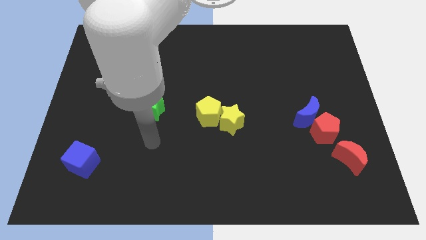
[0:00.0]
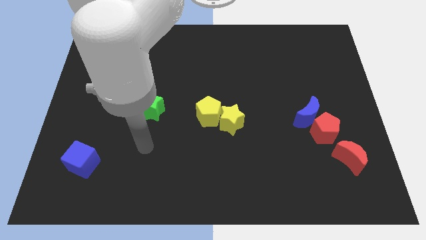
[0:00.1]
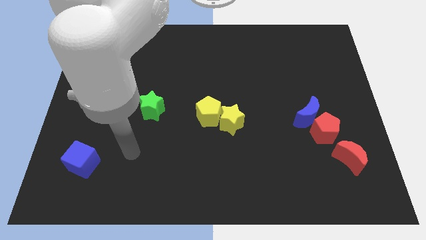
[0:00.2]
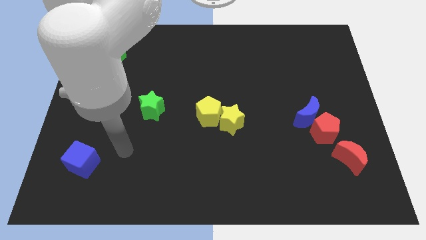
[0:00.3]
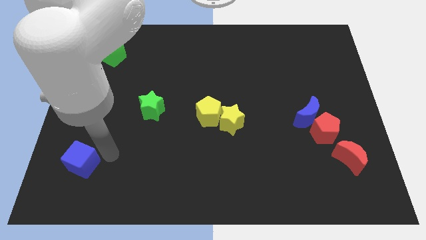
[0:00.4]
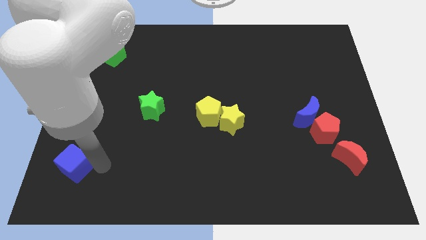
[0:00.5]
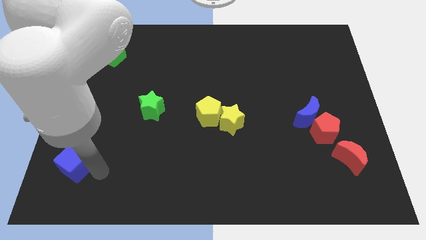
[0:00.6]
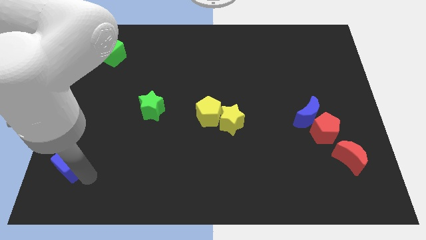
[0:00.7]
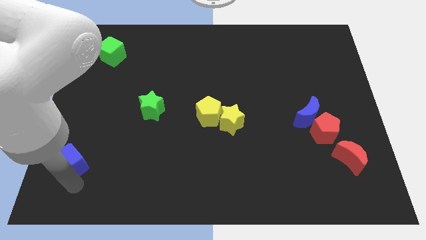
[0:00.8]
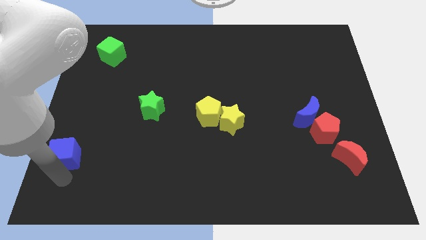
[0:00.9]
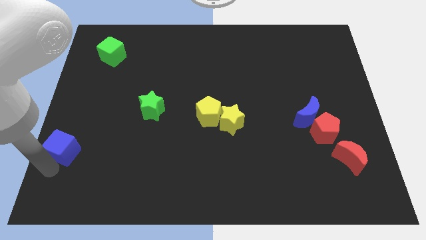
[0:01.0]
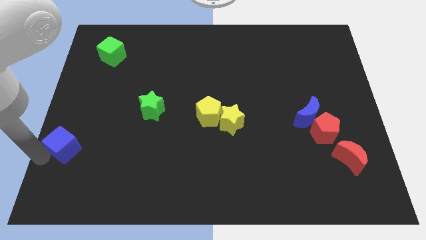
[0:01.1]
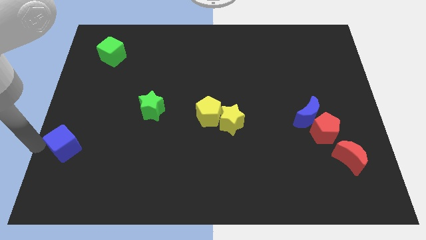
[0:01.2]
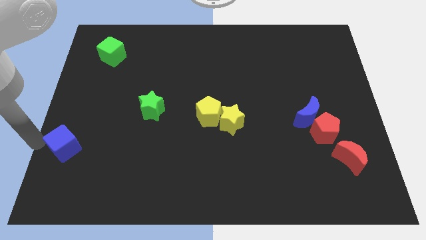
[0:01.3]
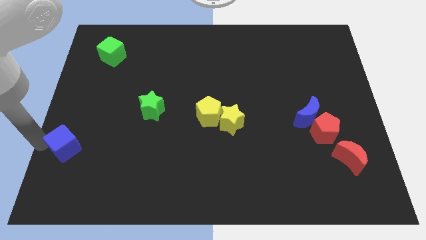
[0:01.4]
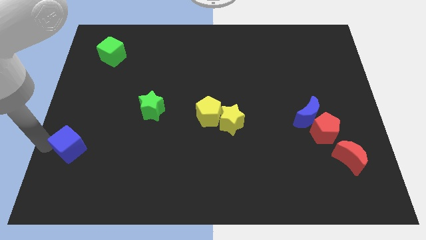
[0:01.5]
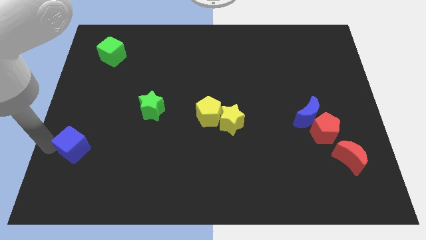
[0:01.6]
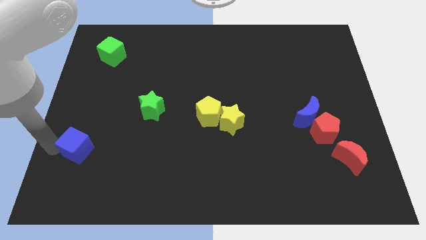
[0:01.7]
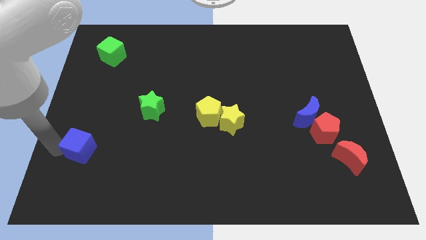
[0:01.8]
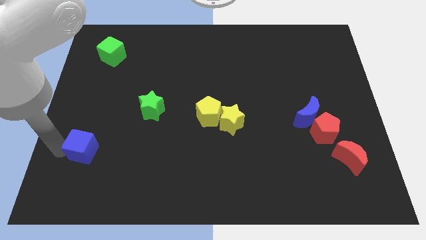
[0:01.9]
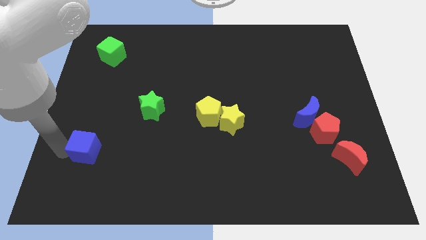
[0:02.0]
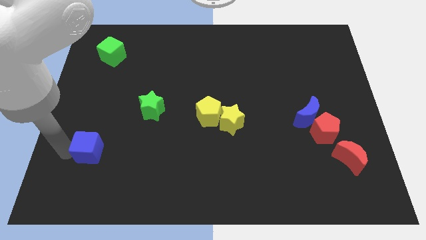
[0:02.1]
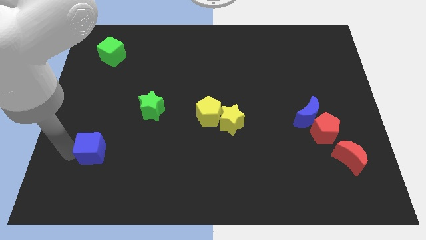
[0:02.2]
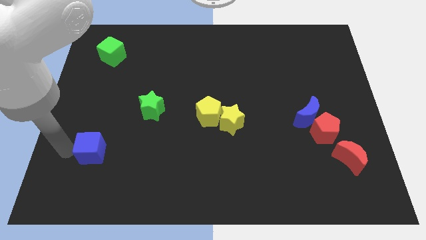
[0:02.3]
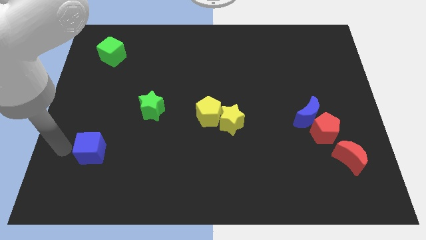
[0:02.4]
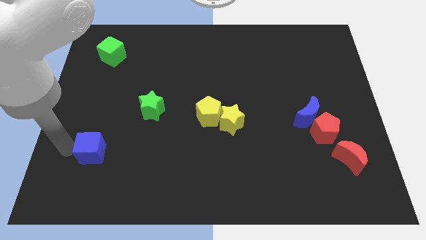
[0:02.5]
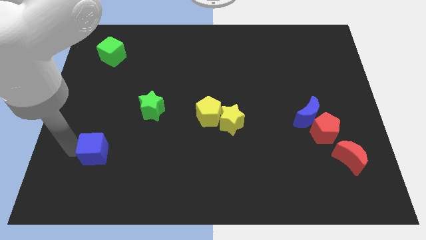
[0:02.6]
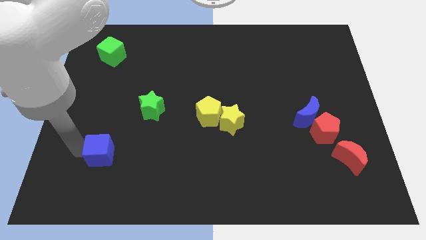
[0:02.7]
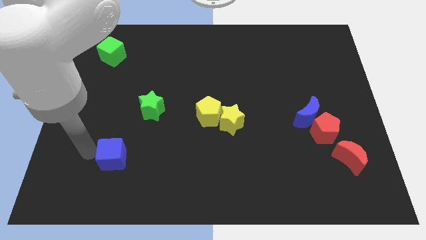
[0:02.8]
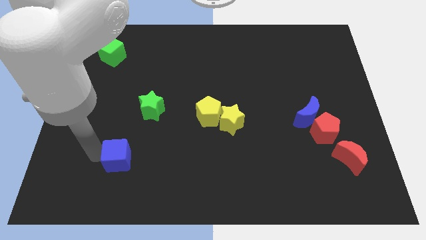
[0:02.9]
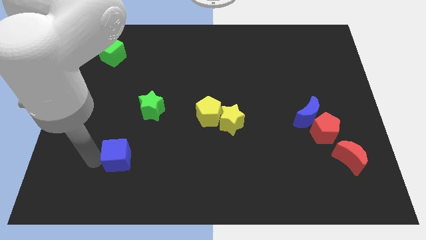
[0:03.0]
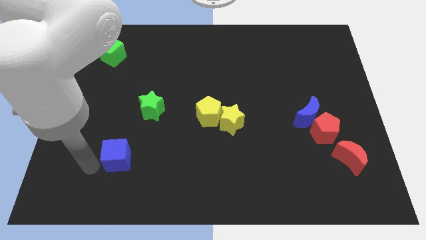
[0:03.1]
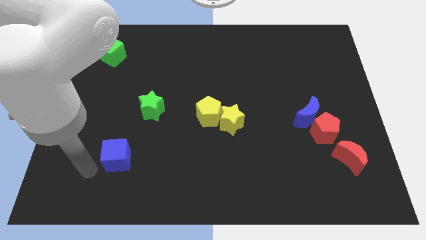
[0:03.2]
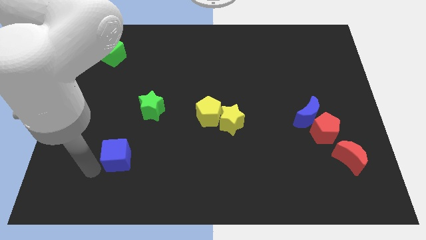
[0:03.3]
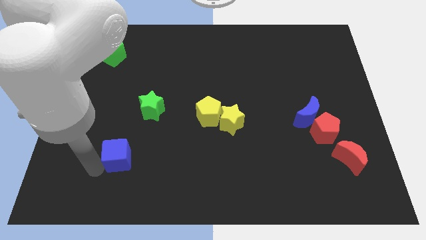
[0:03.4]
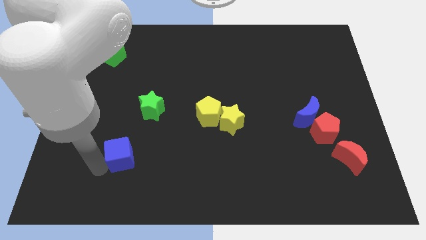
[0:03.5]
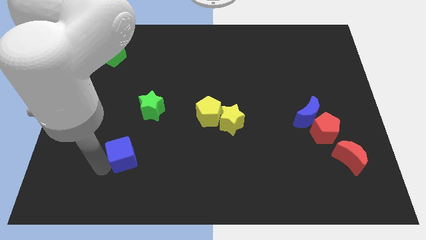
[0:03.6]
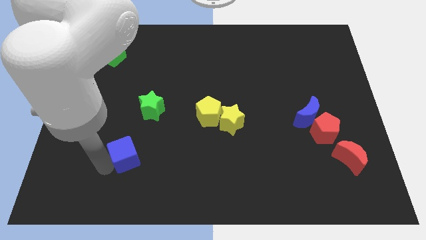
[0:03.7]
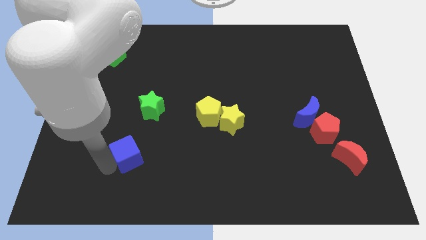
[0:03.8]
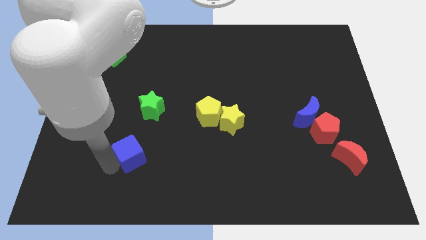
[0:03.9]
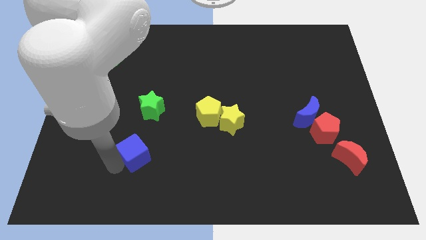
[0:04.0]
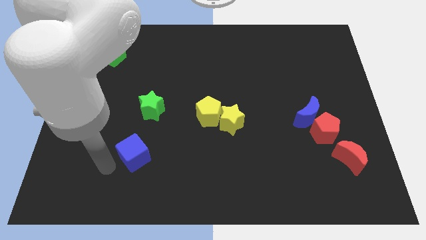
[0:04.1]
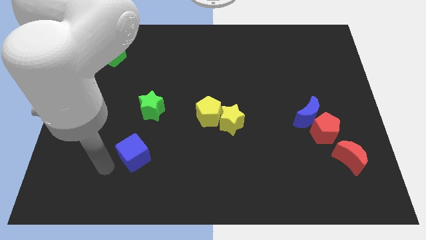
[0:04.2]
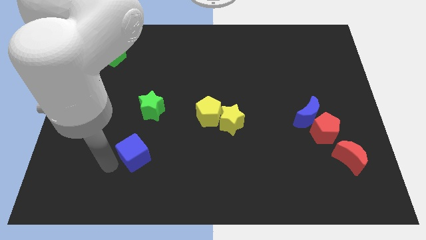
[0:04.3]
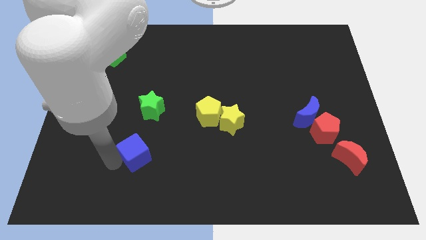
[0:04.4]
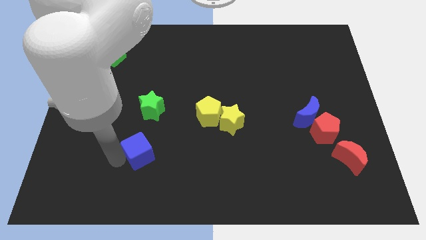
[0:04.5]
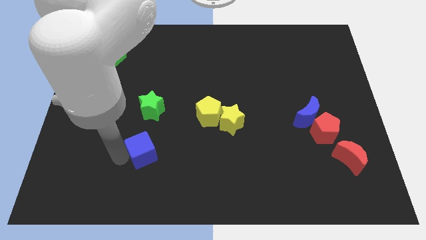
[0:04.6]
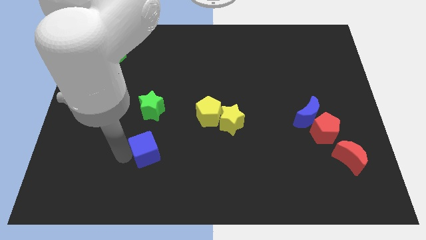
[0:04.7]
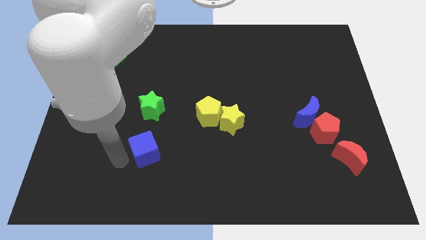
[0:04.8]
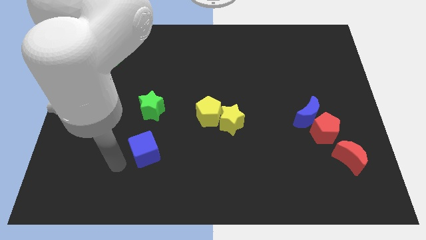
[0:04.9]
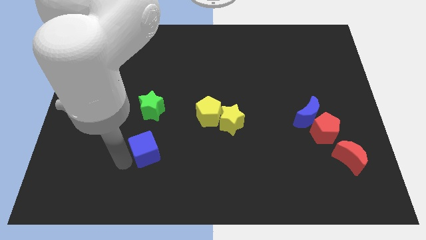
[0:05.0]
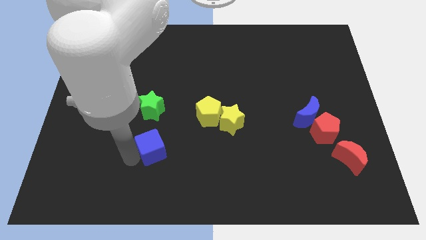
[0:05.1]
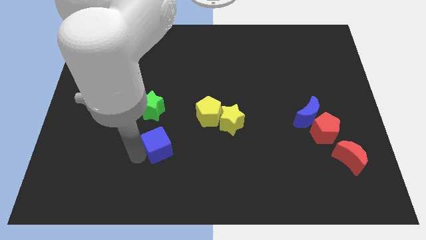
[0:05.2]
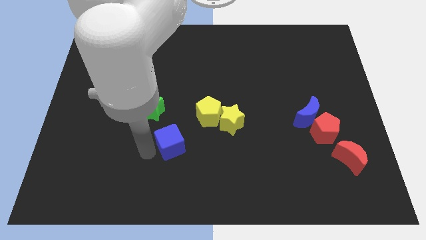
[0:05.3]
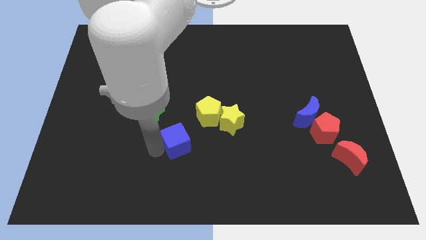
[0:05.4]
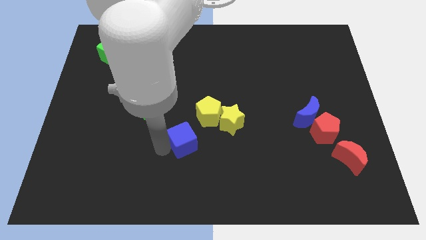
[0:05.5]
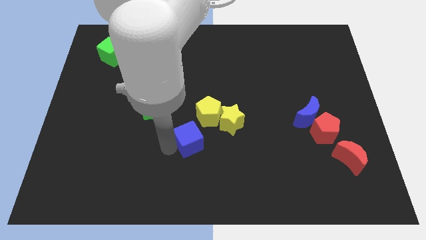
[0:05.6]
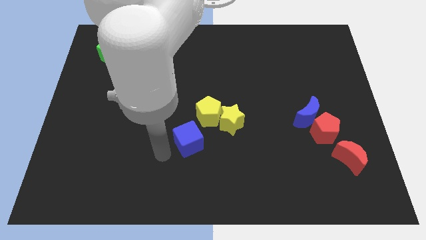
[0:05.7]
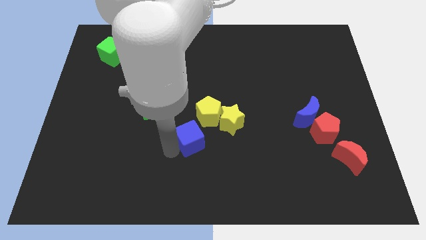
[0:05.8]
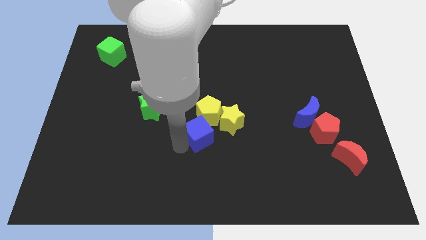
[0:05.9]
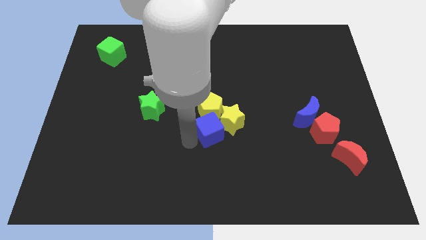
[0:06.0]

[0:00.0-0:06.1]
move the blue cube to the yellow star
